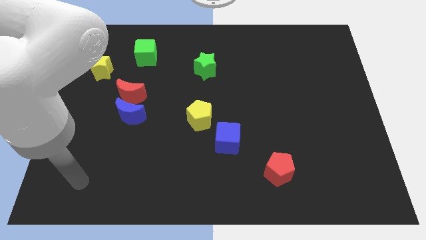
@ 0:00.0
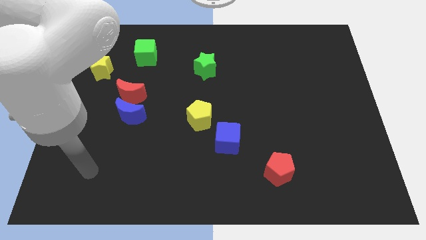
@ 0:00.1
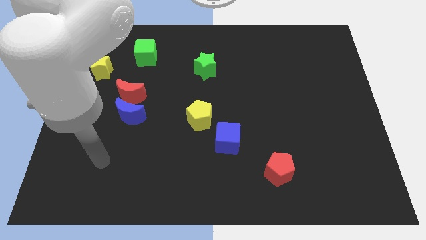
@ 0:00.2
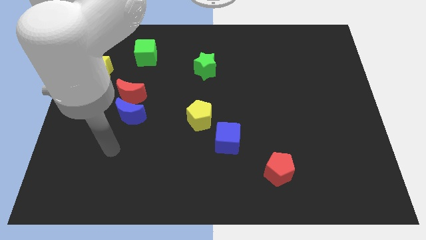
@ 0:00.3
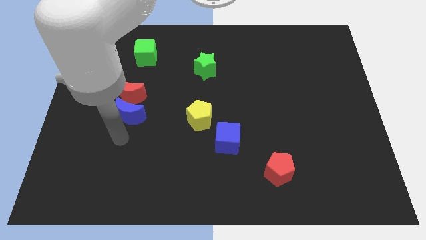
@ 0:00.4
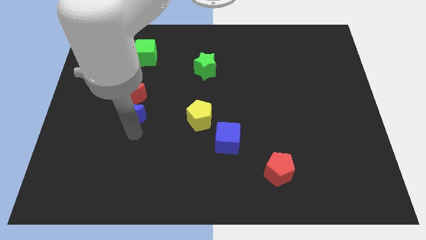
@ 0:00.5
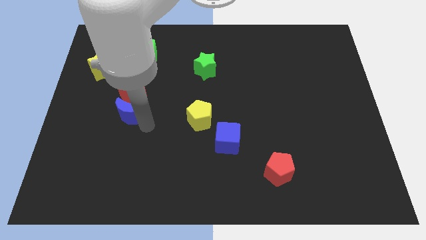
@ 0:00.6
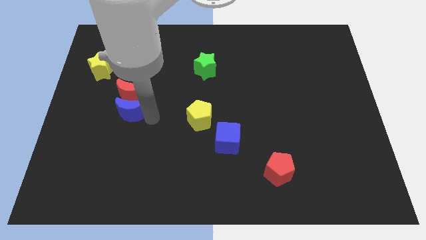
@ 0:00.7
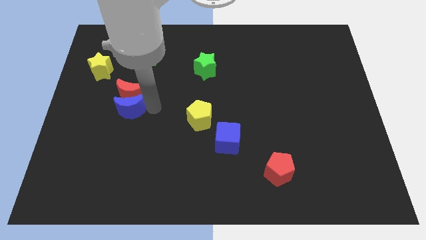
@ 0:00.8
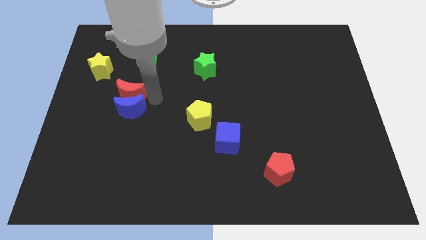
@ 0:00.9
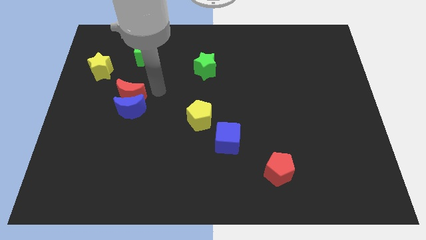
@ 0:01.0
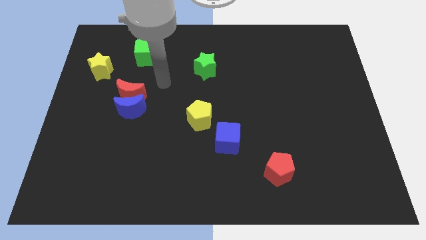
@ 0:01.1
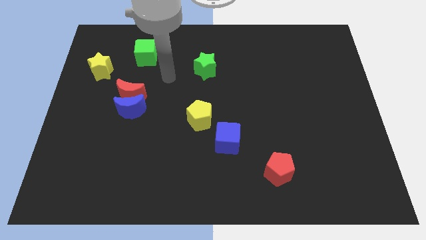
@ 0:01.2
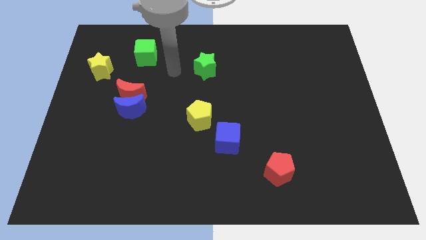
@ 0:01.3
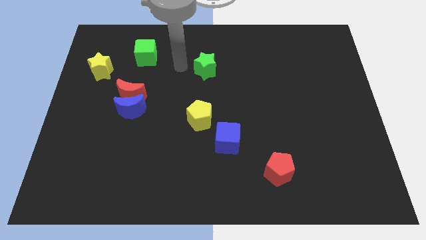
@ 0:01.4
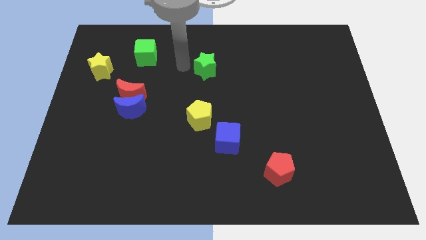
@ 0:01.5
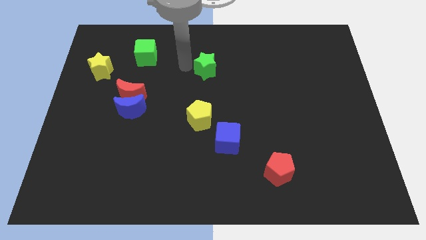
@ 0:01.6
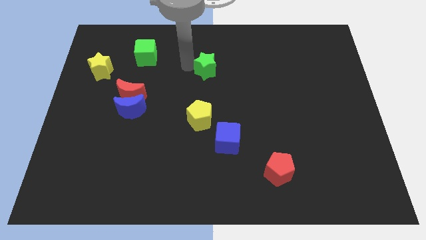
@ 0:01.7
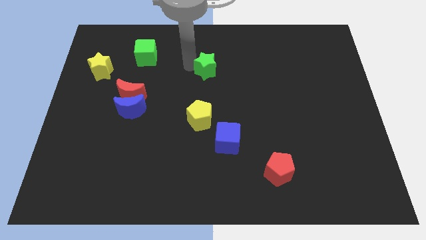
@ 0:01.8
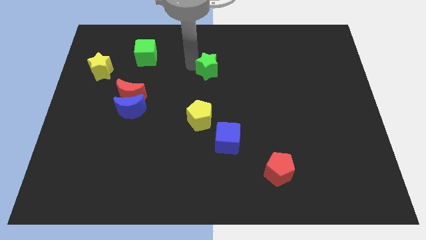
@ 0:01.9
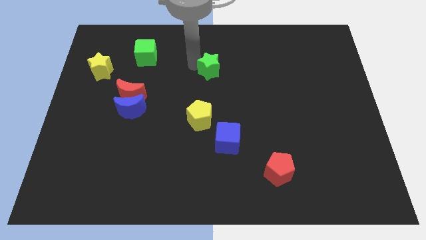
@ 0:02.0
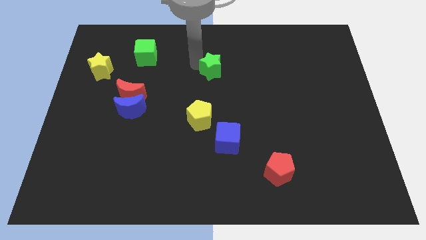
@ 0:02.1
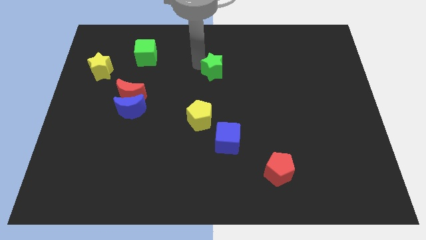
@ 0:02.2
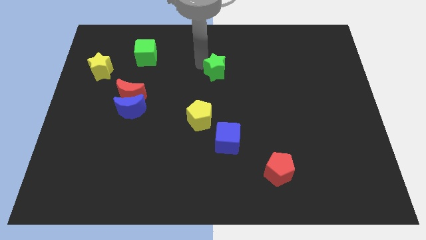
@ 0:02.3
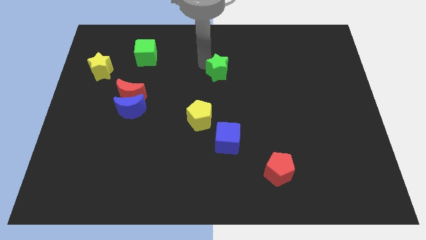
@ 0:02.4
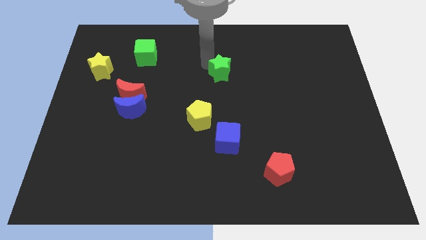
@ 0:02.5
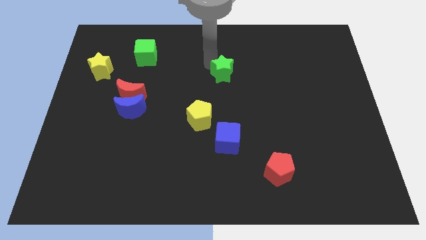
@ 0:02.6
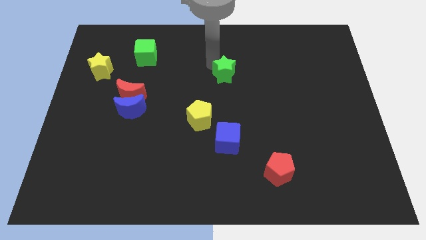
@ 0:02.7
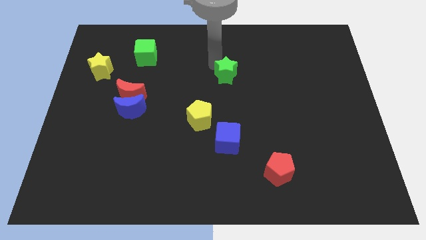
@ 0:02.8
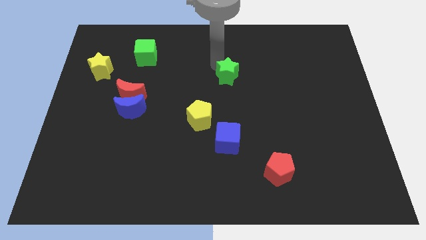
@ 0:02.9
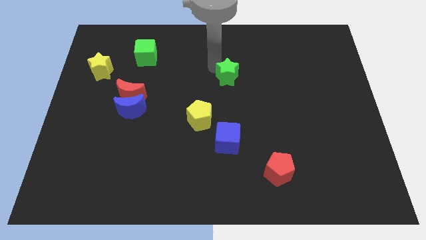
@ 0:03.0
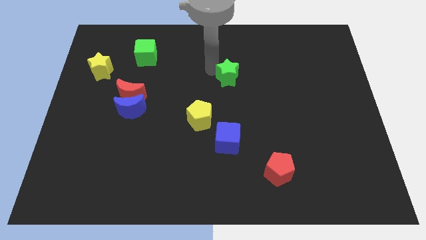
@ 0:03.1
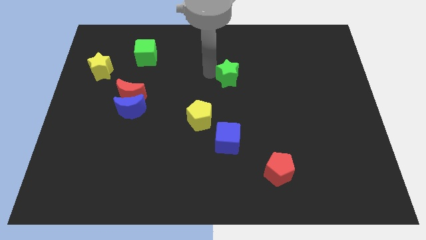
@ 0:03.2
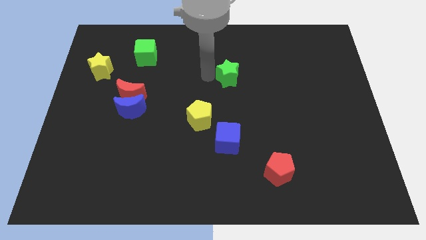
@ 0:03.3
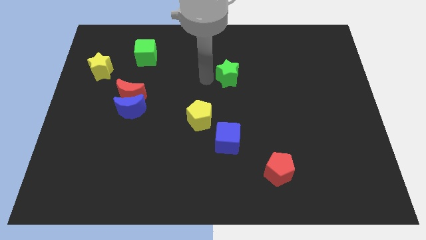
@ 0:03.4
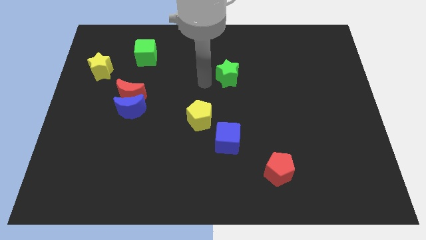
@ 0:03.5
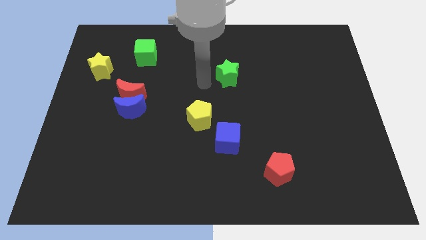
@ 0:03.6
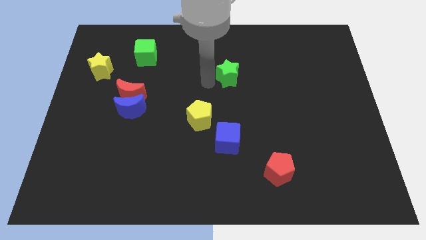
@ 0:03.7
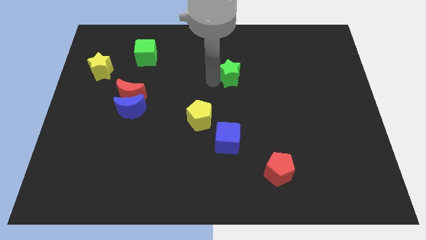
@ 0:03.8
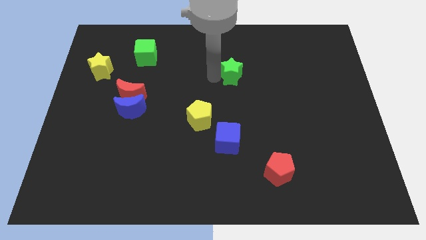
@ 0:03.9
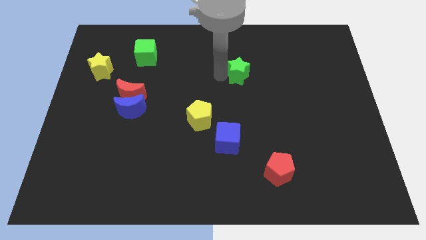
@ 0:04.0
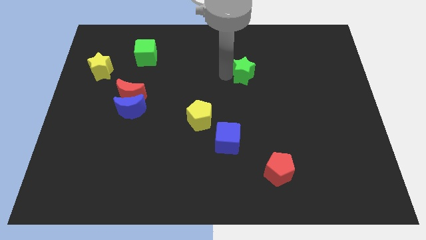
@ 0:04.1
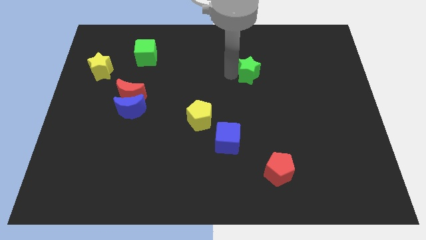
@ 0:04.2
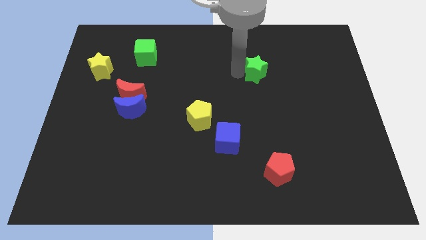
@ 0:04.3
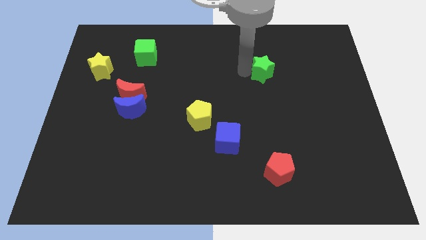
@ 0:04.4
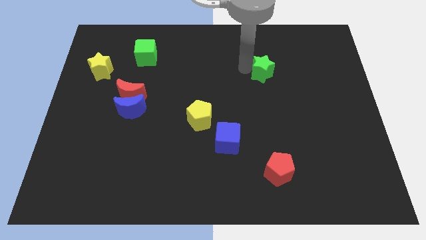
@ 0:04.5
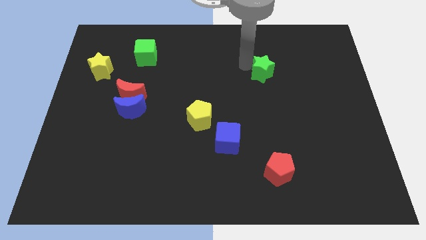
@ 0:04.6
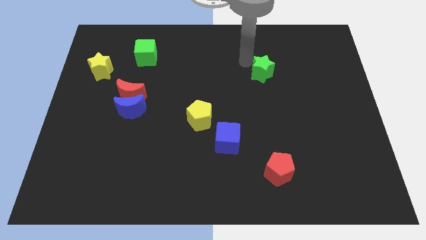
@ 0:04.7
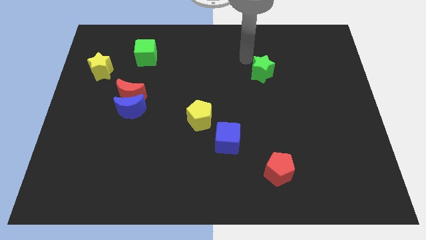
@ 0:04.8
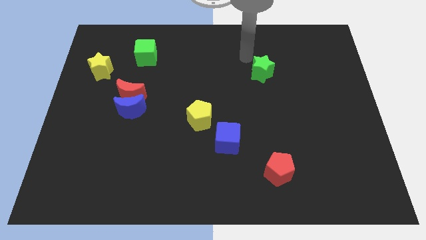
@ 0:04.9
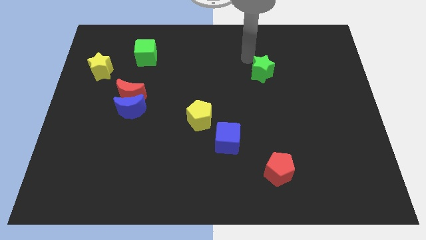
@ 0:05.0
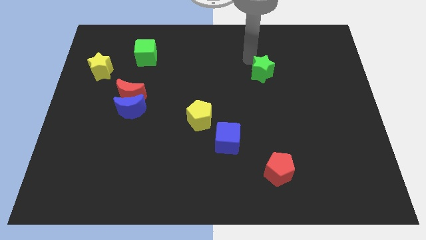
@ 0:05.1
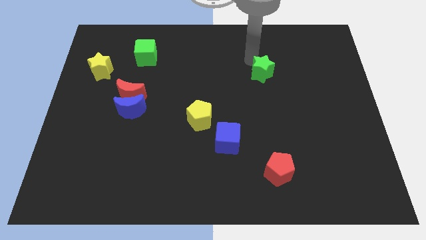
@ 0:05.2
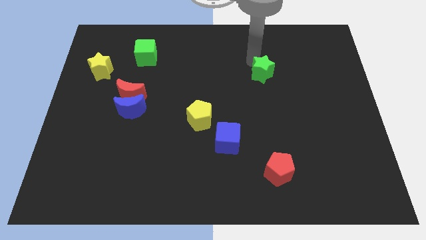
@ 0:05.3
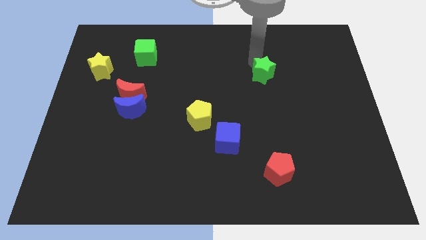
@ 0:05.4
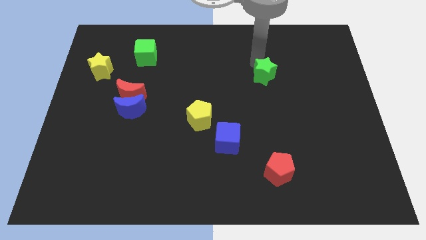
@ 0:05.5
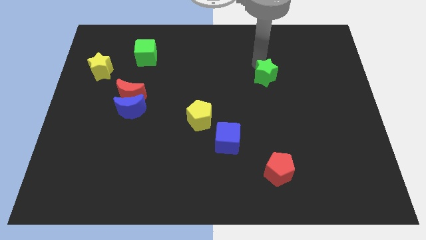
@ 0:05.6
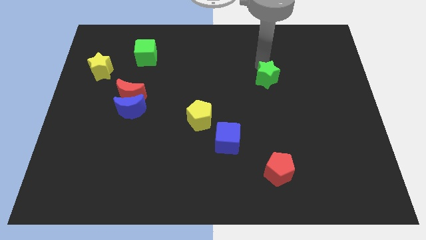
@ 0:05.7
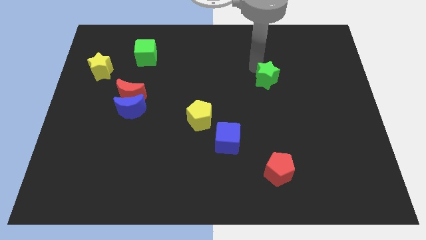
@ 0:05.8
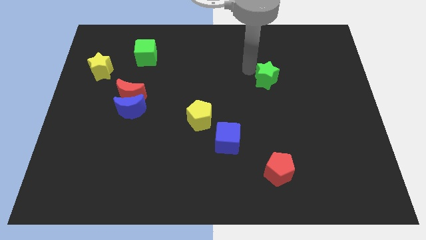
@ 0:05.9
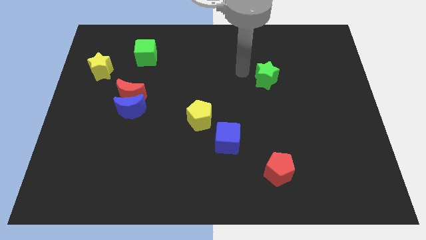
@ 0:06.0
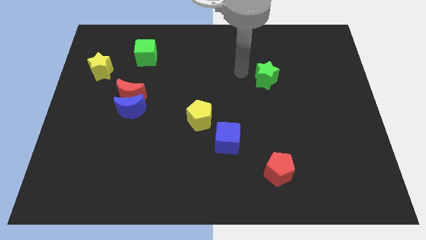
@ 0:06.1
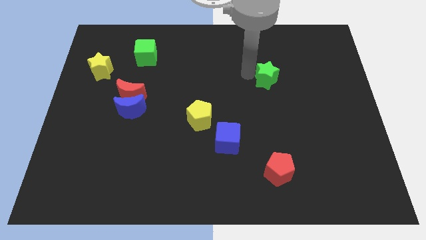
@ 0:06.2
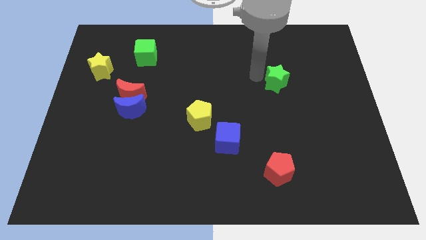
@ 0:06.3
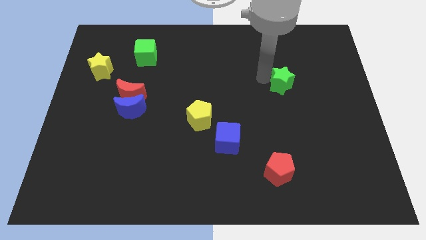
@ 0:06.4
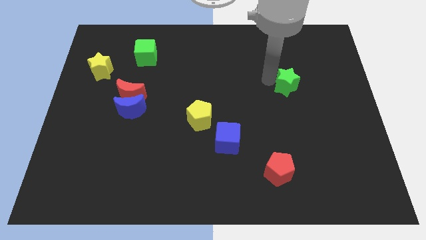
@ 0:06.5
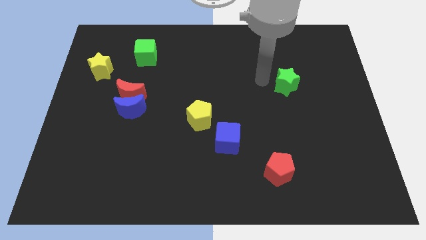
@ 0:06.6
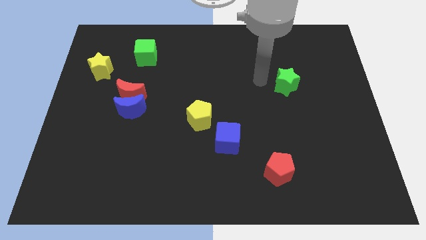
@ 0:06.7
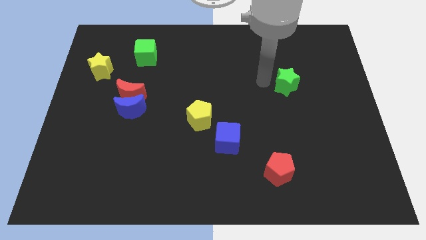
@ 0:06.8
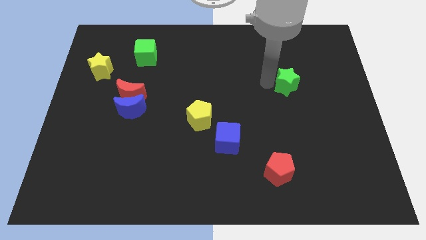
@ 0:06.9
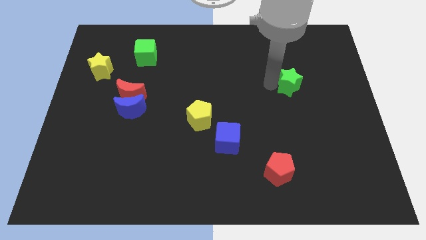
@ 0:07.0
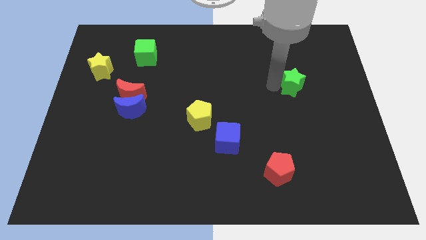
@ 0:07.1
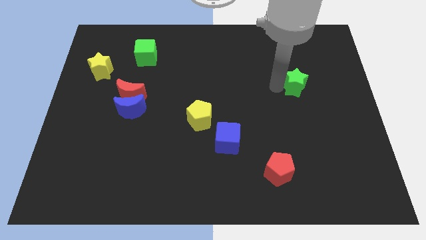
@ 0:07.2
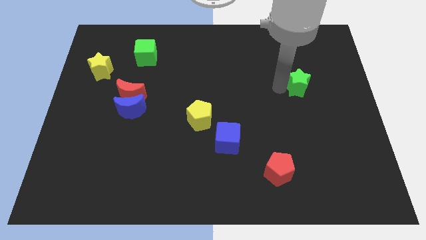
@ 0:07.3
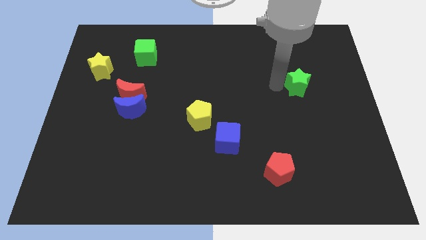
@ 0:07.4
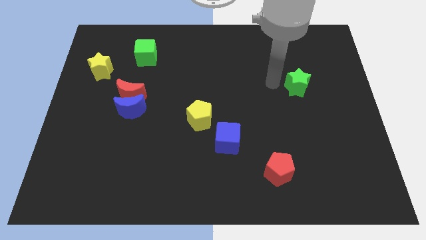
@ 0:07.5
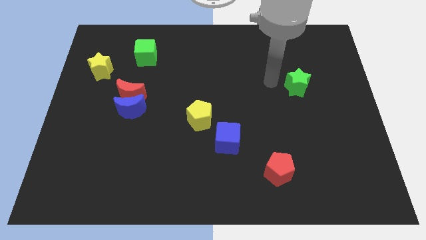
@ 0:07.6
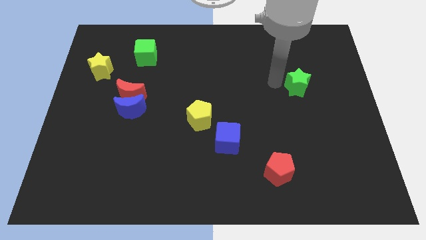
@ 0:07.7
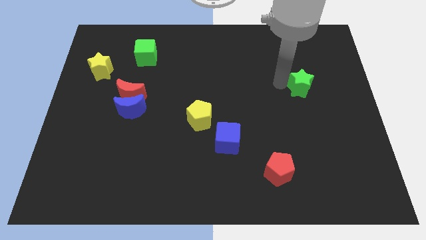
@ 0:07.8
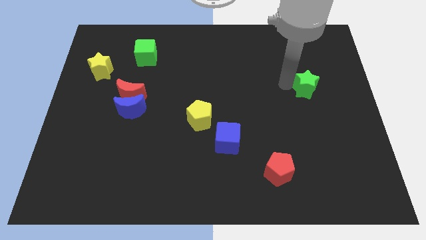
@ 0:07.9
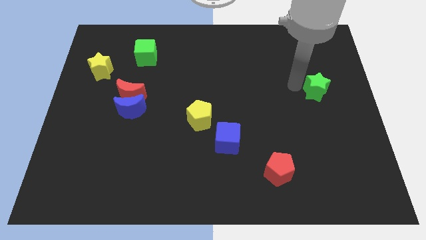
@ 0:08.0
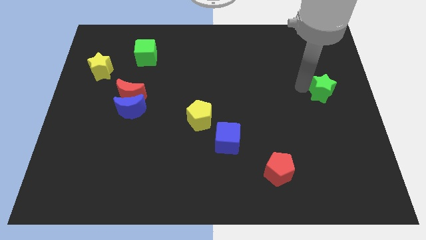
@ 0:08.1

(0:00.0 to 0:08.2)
slide the green star to the right side
